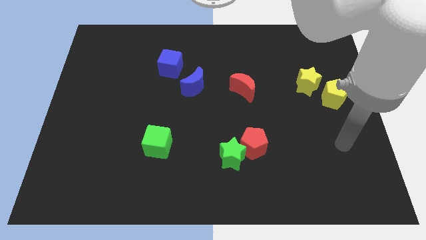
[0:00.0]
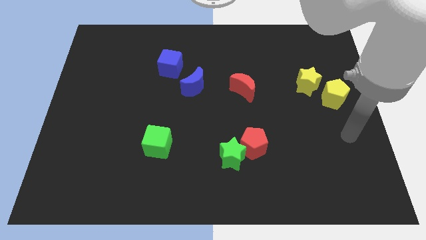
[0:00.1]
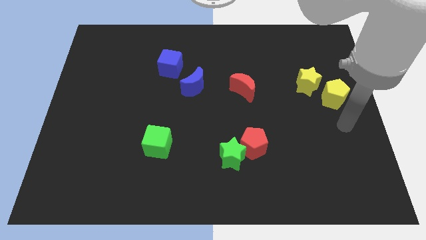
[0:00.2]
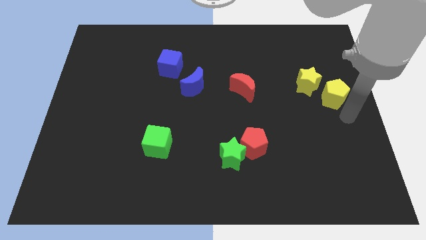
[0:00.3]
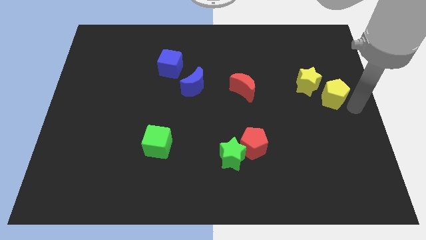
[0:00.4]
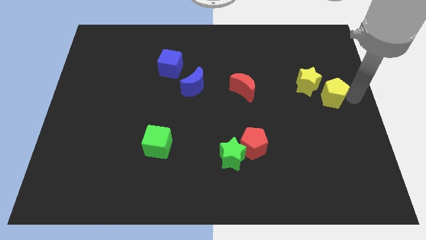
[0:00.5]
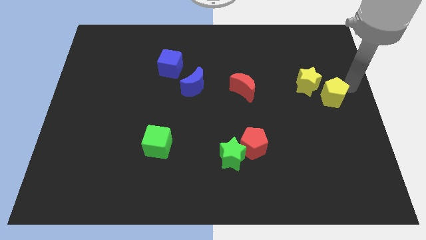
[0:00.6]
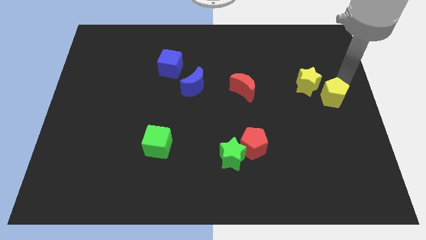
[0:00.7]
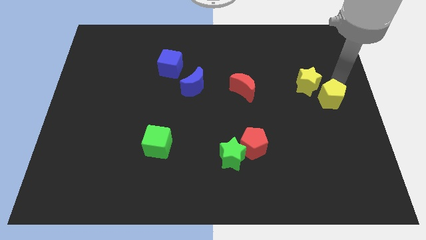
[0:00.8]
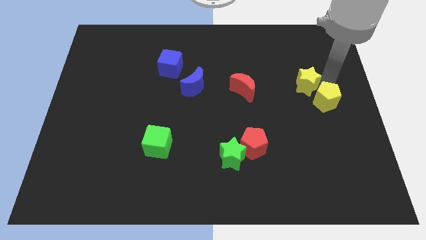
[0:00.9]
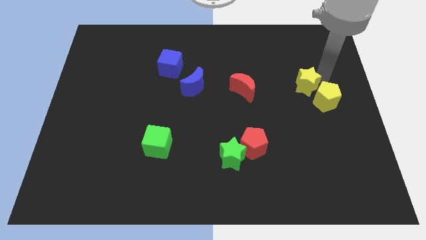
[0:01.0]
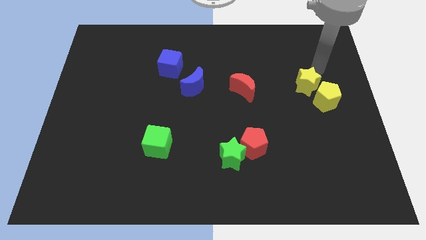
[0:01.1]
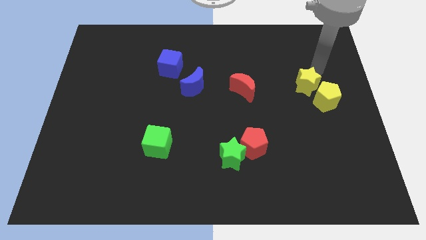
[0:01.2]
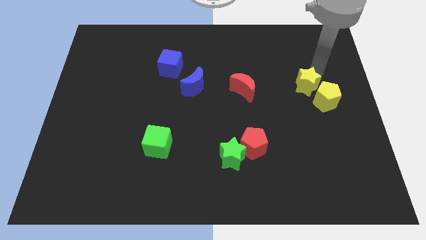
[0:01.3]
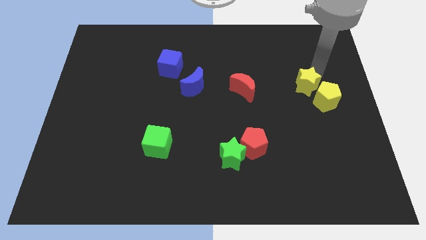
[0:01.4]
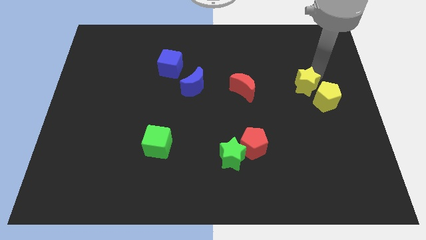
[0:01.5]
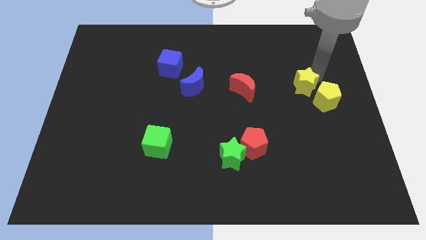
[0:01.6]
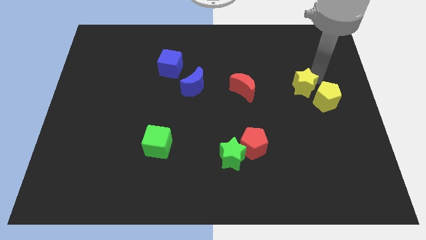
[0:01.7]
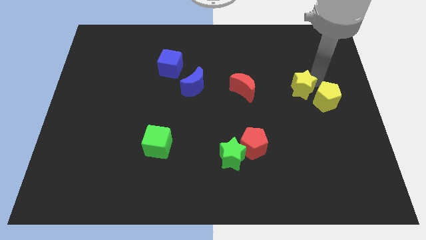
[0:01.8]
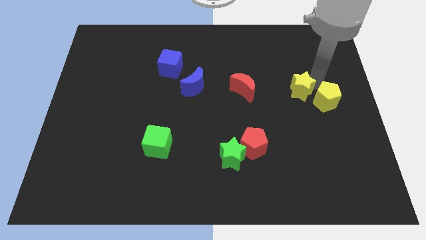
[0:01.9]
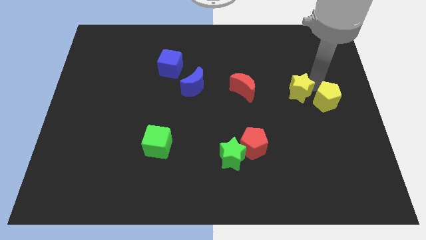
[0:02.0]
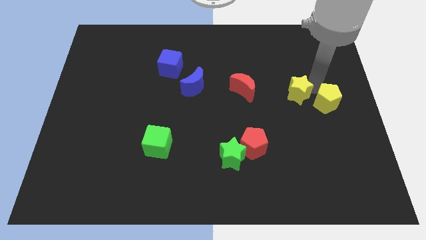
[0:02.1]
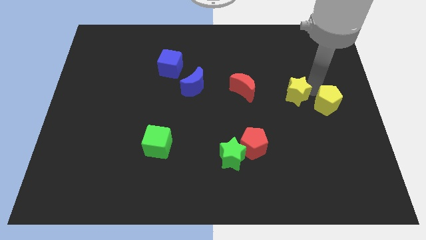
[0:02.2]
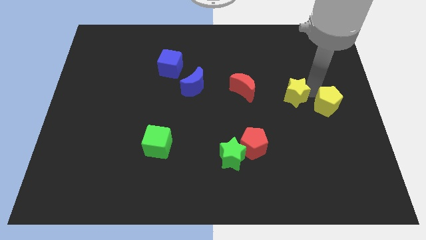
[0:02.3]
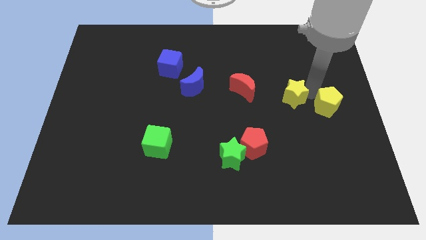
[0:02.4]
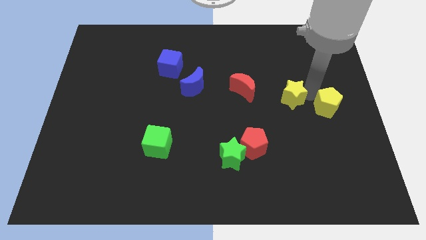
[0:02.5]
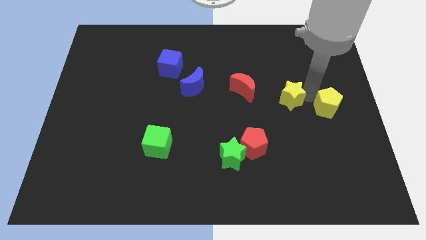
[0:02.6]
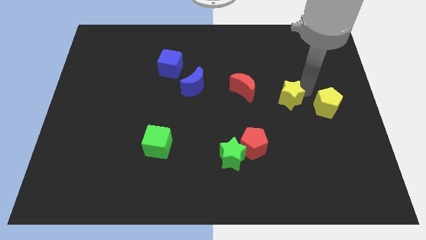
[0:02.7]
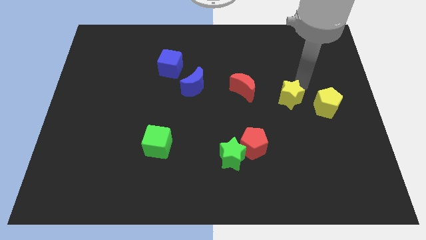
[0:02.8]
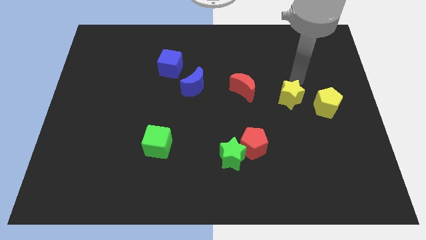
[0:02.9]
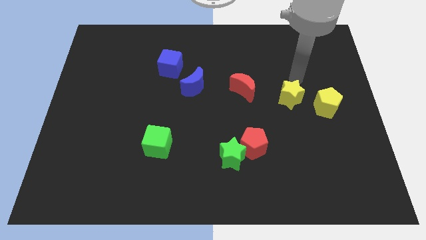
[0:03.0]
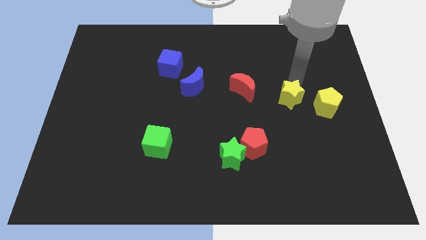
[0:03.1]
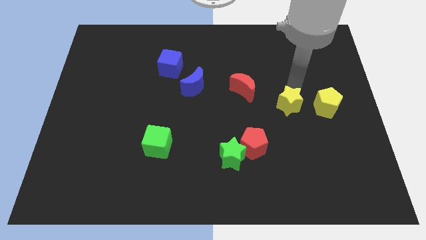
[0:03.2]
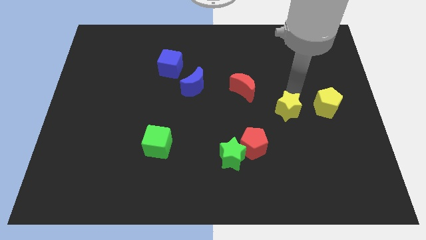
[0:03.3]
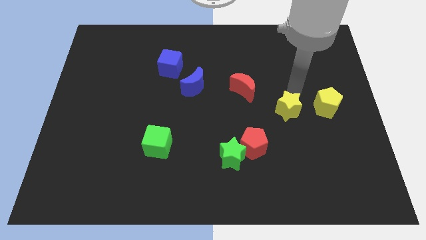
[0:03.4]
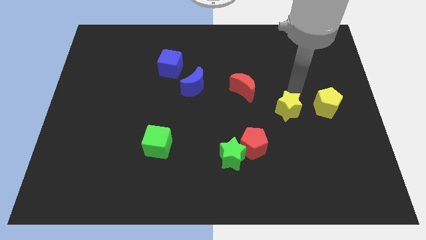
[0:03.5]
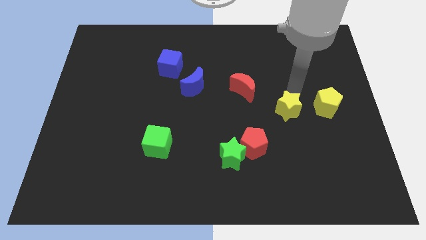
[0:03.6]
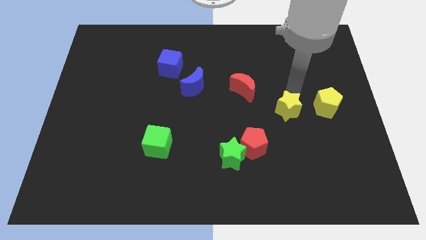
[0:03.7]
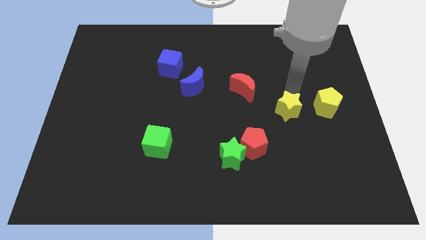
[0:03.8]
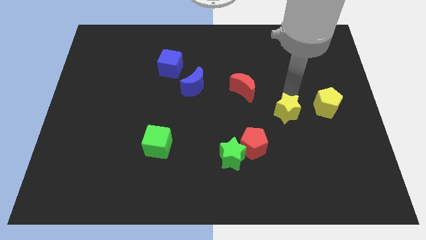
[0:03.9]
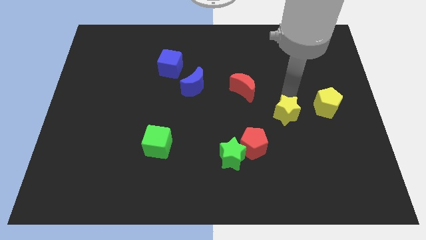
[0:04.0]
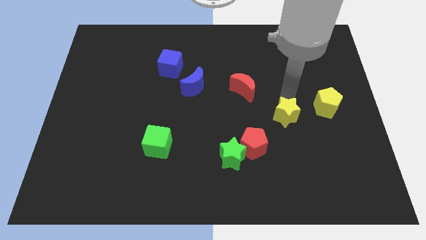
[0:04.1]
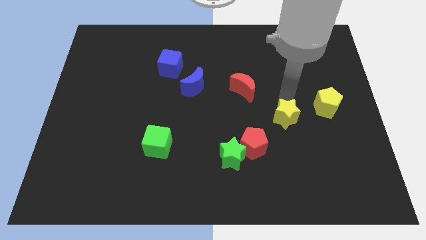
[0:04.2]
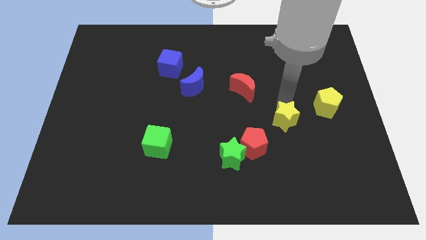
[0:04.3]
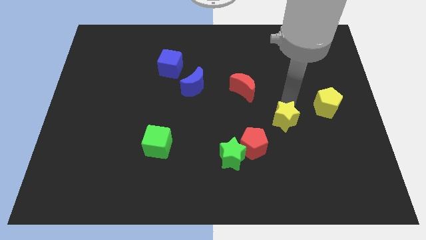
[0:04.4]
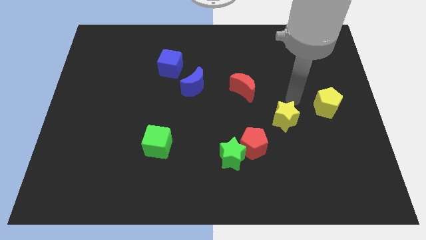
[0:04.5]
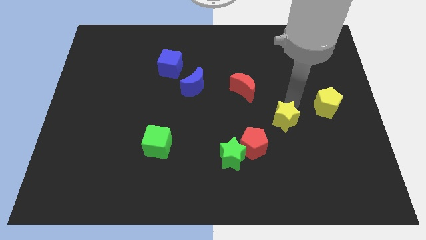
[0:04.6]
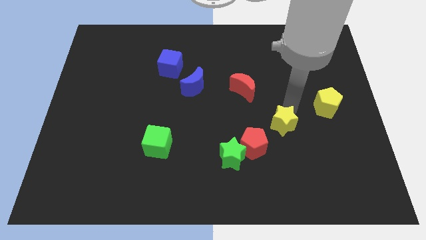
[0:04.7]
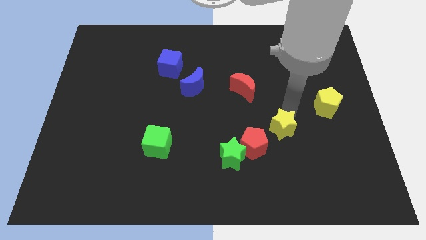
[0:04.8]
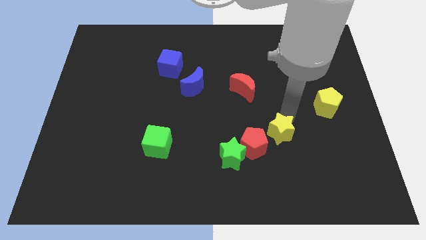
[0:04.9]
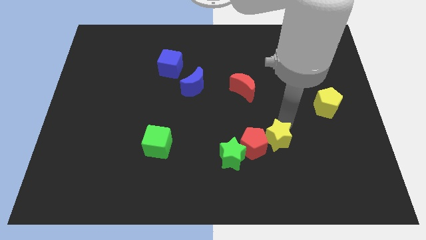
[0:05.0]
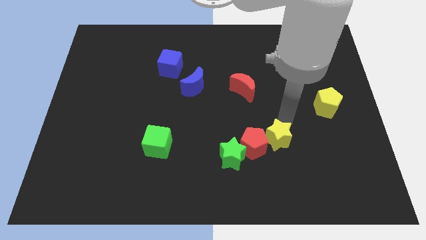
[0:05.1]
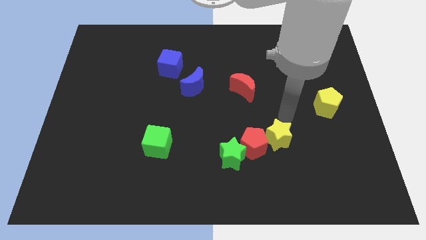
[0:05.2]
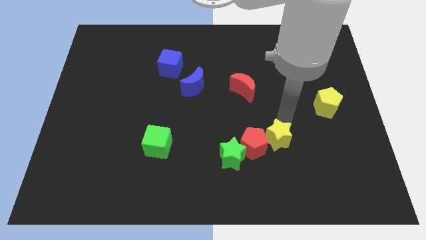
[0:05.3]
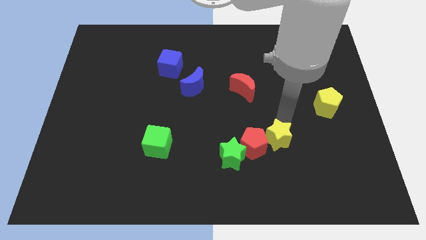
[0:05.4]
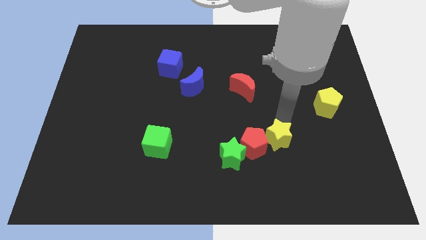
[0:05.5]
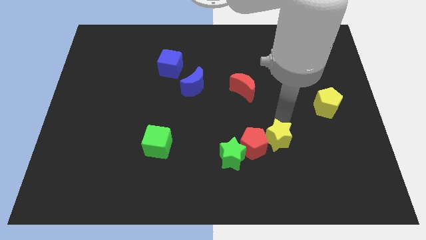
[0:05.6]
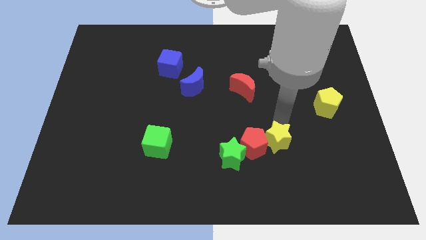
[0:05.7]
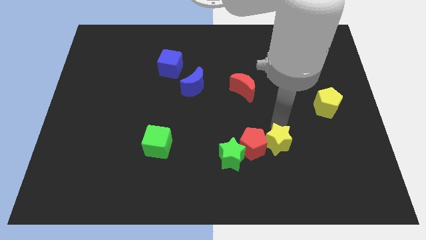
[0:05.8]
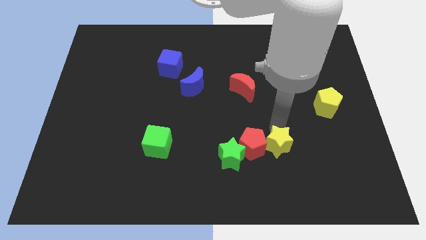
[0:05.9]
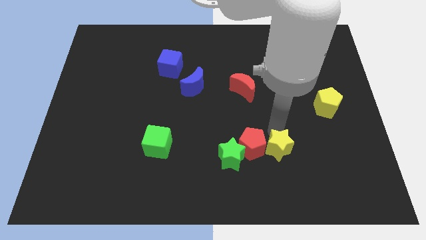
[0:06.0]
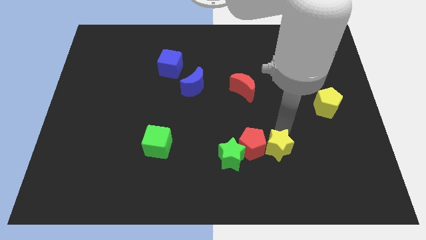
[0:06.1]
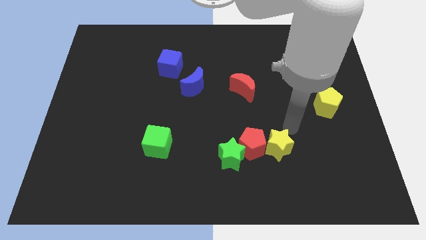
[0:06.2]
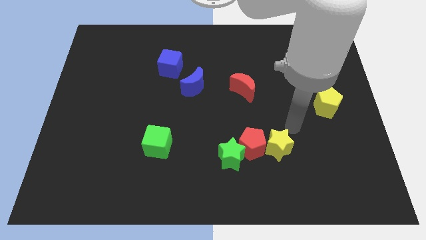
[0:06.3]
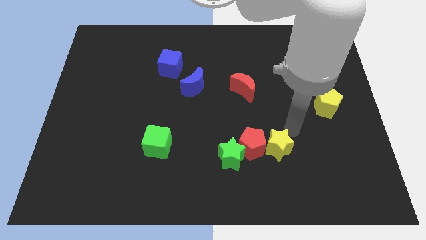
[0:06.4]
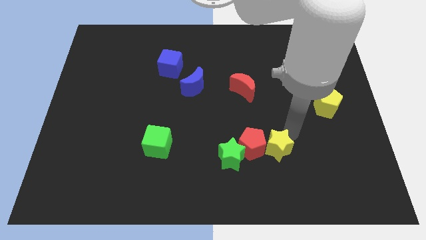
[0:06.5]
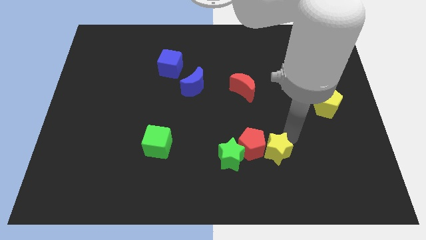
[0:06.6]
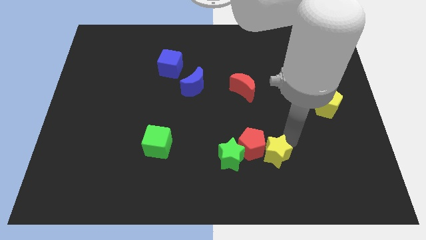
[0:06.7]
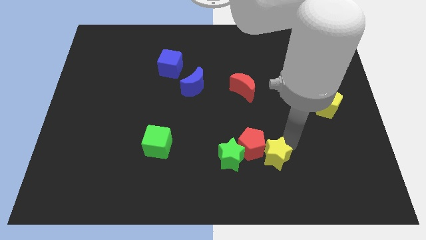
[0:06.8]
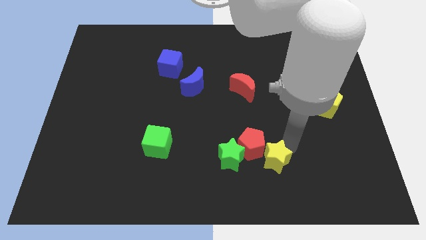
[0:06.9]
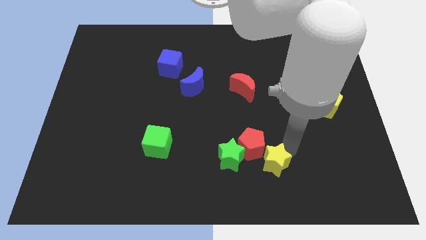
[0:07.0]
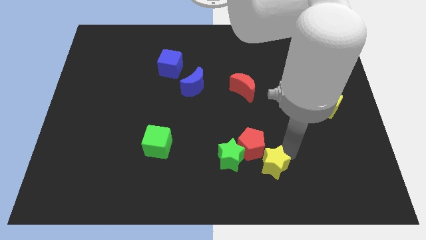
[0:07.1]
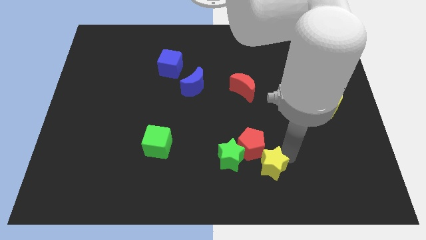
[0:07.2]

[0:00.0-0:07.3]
push the yellow star diagonally down and to the right of the green star

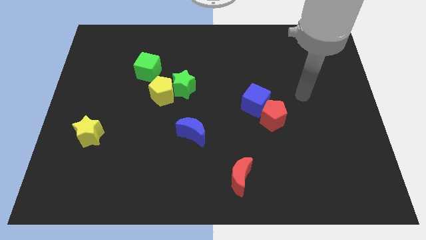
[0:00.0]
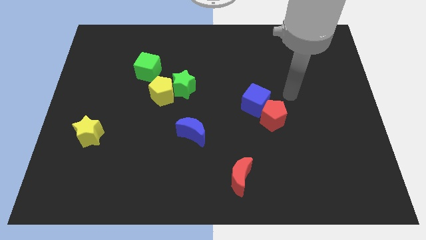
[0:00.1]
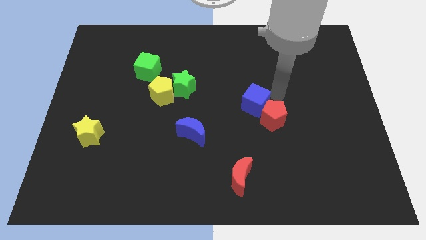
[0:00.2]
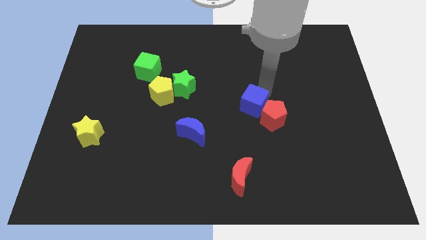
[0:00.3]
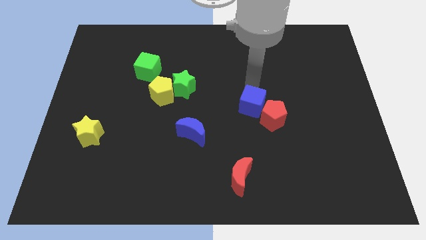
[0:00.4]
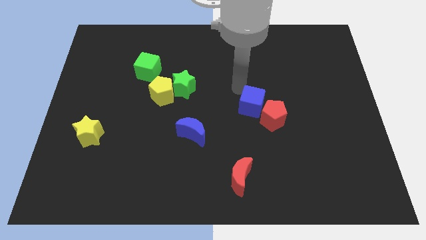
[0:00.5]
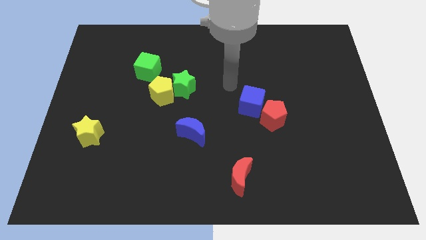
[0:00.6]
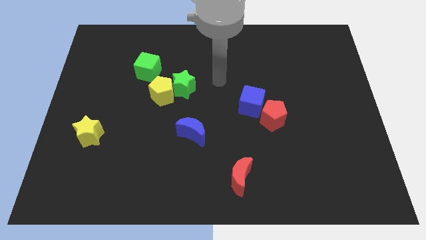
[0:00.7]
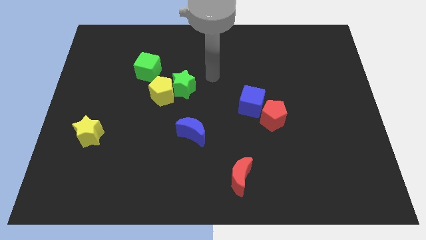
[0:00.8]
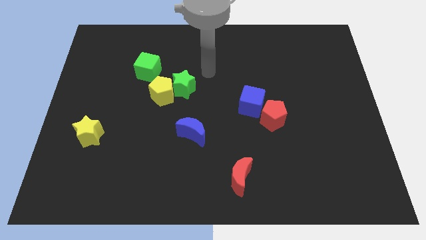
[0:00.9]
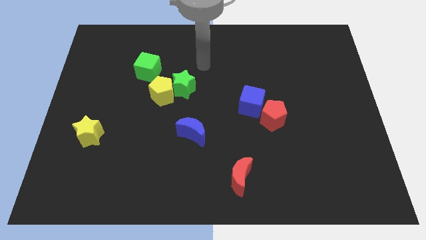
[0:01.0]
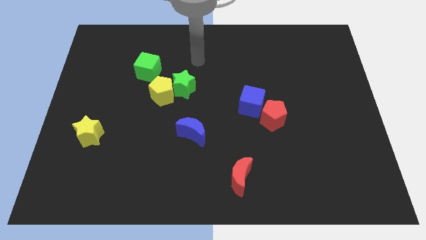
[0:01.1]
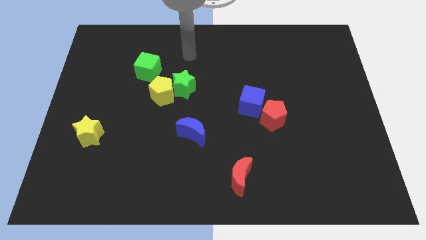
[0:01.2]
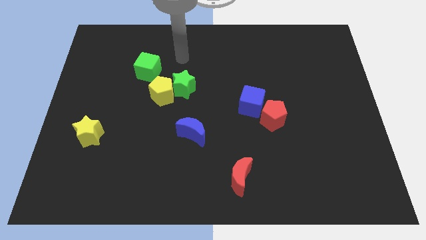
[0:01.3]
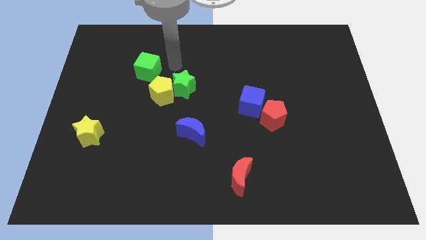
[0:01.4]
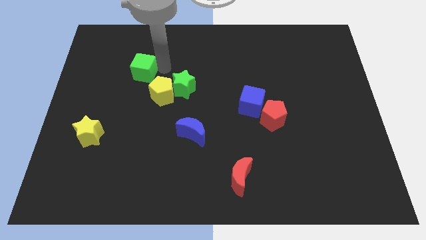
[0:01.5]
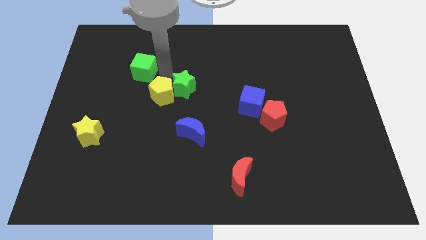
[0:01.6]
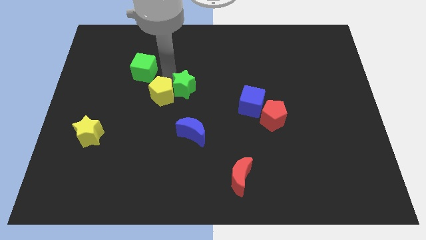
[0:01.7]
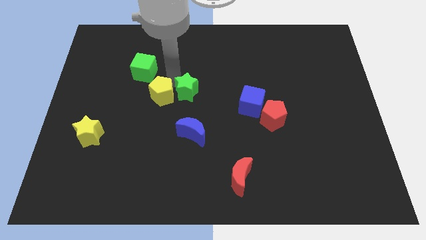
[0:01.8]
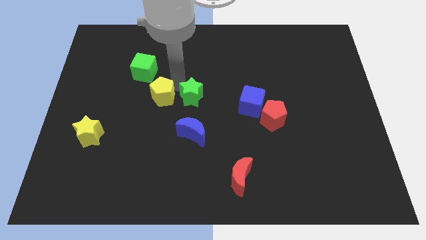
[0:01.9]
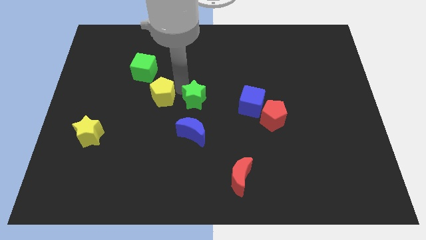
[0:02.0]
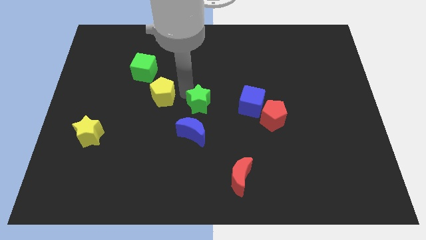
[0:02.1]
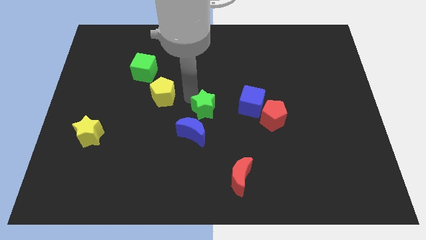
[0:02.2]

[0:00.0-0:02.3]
move the green star to the top right side of the blue moon
